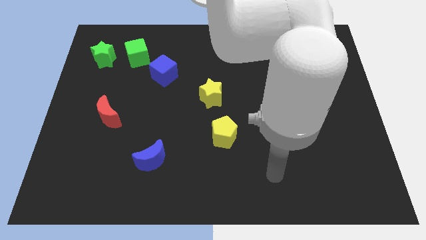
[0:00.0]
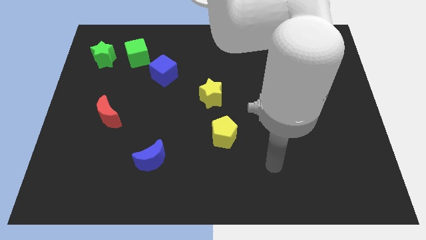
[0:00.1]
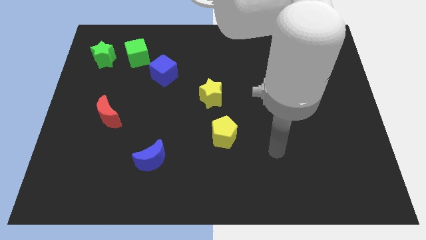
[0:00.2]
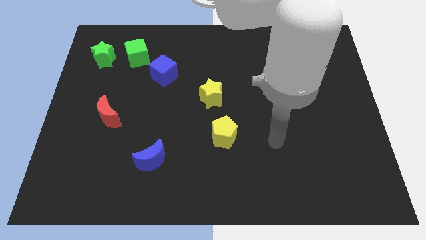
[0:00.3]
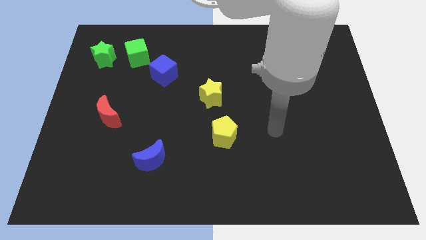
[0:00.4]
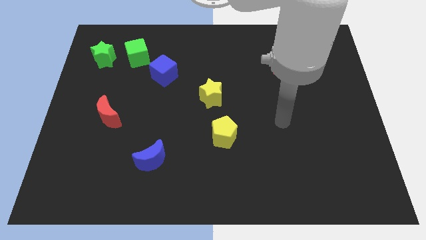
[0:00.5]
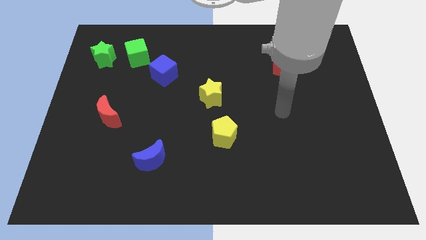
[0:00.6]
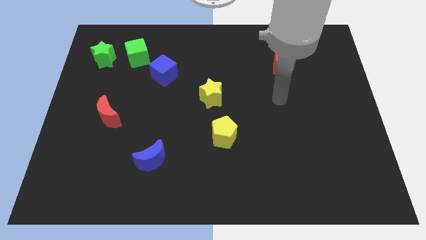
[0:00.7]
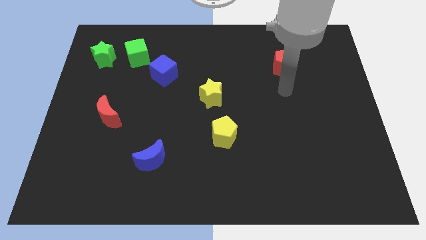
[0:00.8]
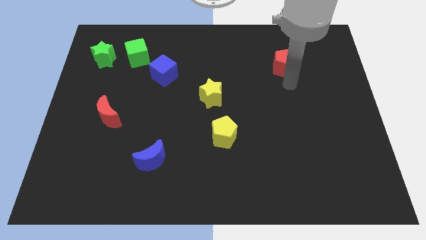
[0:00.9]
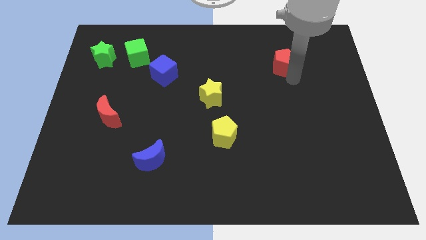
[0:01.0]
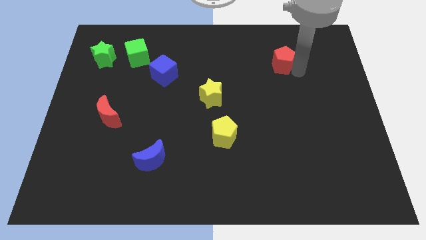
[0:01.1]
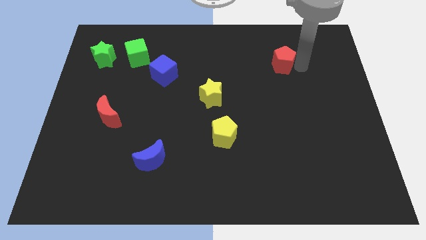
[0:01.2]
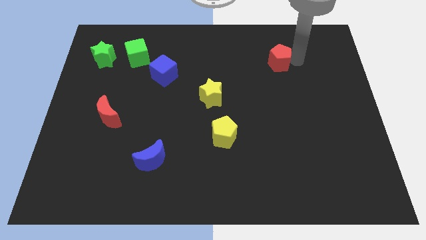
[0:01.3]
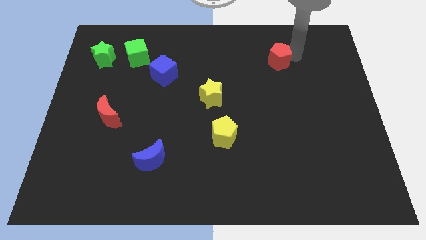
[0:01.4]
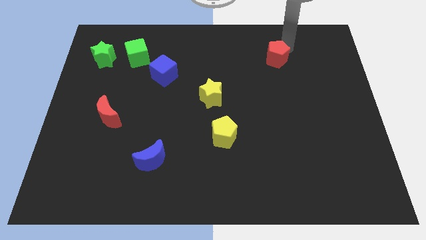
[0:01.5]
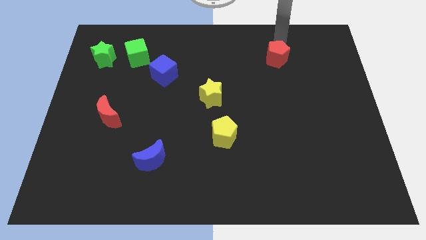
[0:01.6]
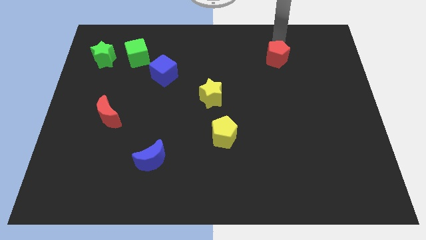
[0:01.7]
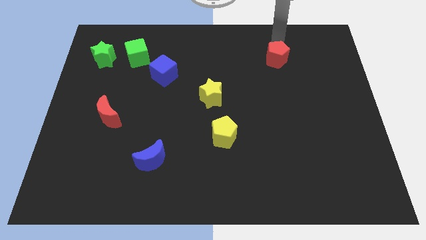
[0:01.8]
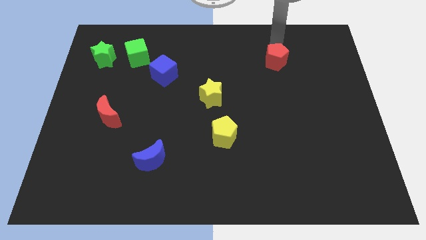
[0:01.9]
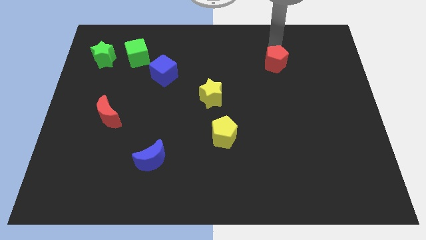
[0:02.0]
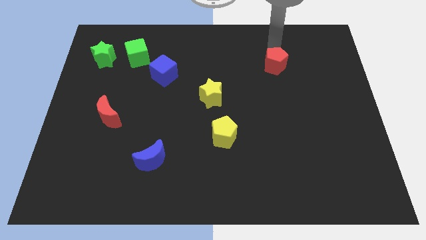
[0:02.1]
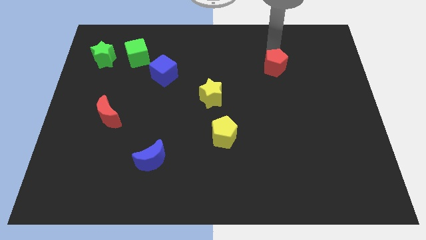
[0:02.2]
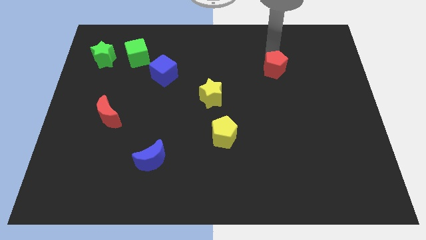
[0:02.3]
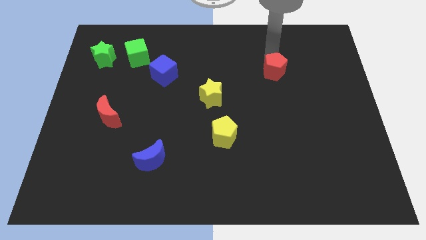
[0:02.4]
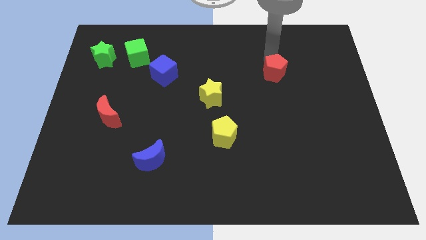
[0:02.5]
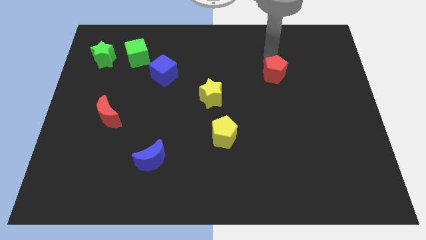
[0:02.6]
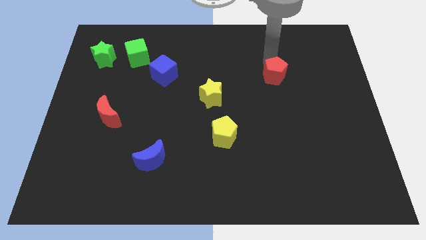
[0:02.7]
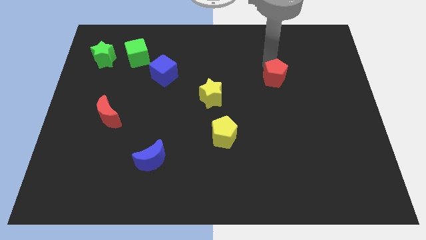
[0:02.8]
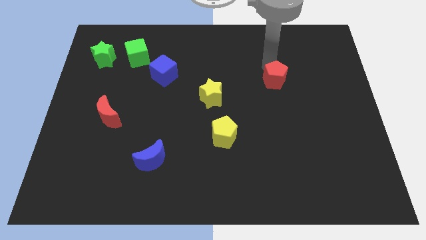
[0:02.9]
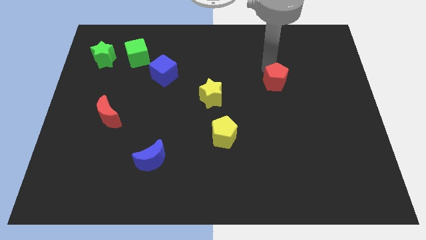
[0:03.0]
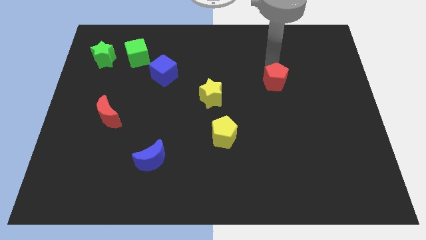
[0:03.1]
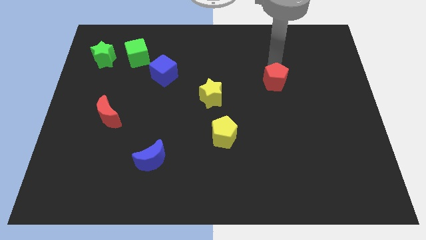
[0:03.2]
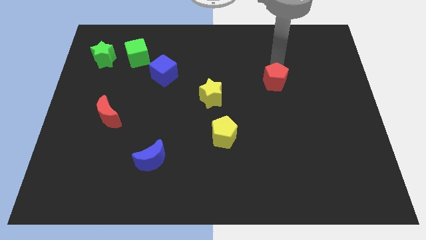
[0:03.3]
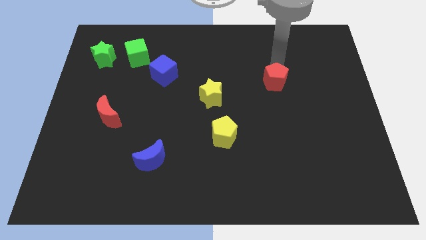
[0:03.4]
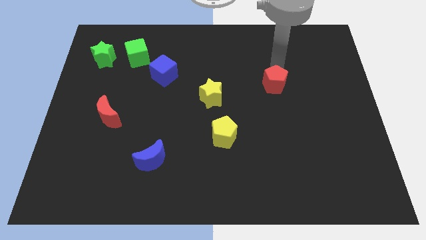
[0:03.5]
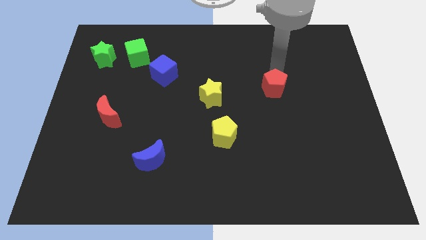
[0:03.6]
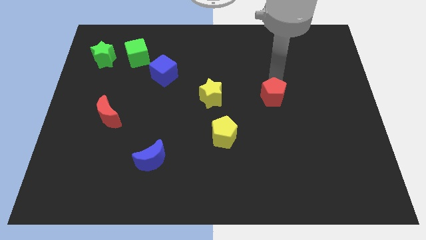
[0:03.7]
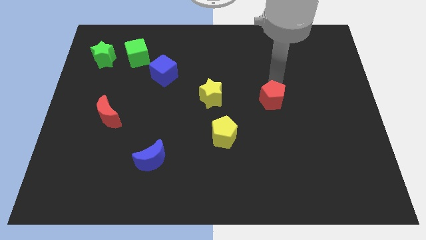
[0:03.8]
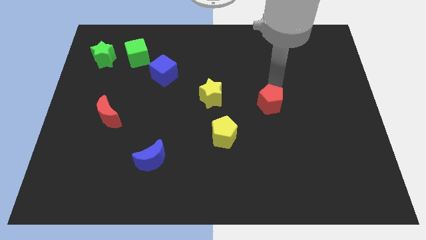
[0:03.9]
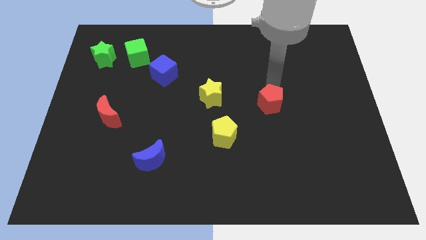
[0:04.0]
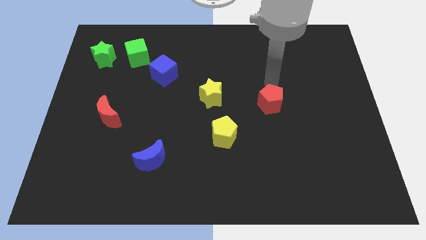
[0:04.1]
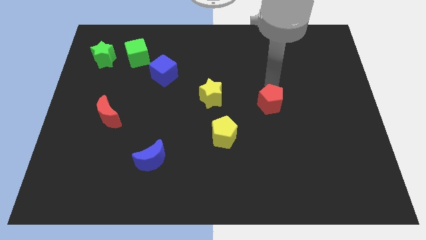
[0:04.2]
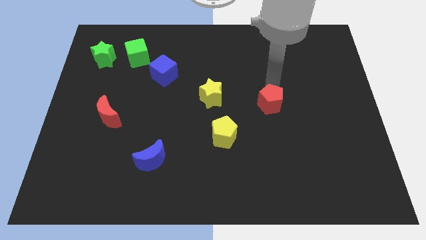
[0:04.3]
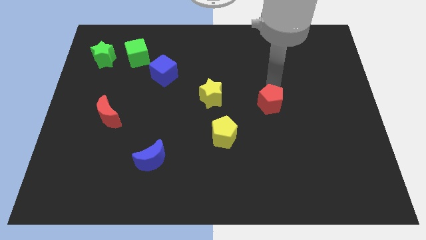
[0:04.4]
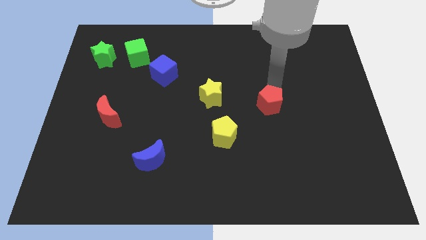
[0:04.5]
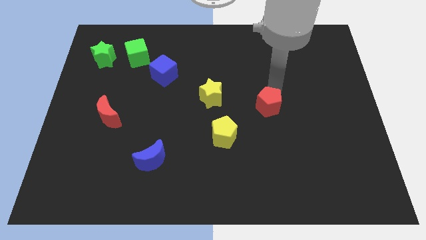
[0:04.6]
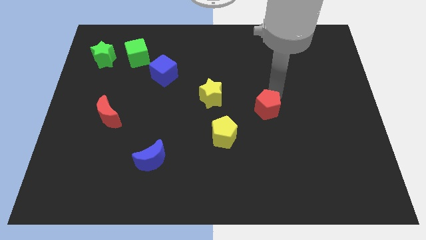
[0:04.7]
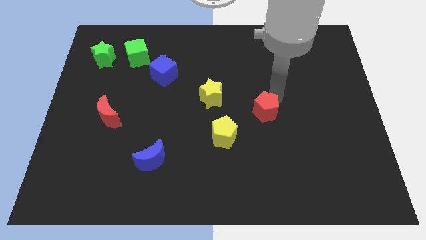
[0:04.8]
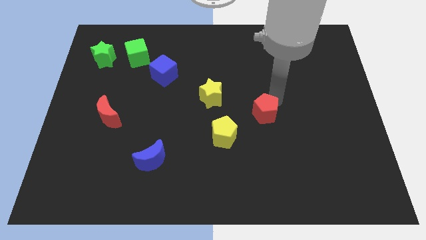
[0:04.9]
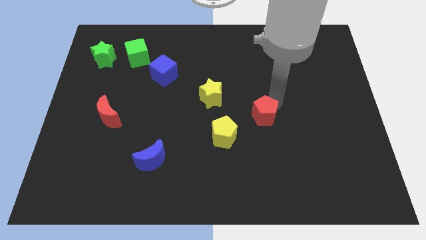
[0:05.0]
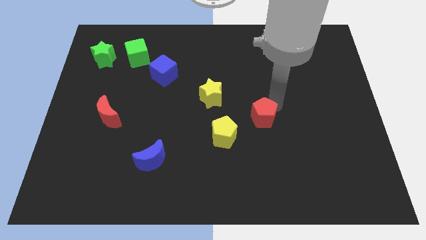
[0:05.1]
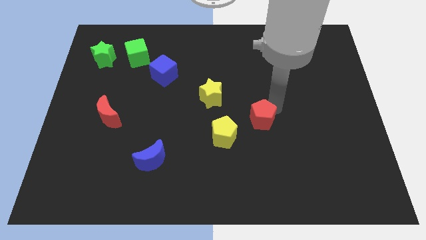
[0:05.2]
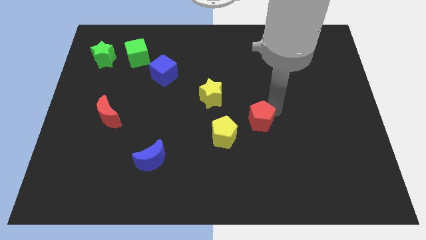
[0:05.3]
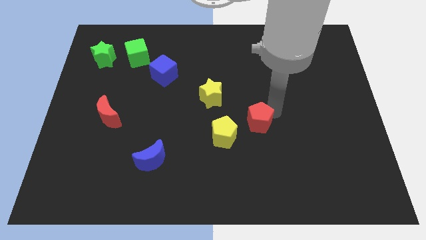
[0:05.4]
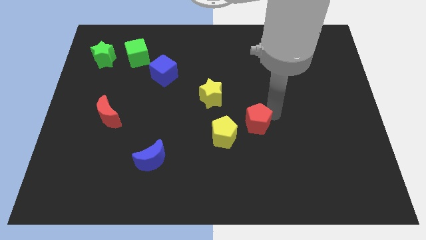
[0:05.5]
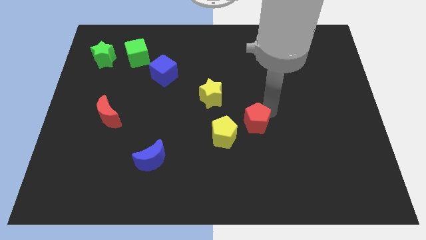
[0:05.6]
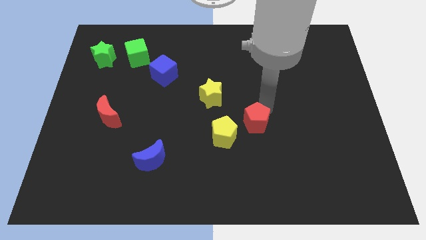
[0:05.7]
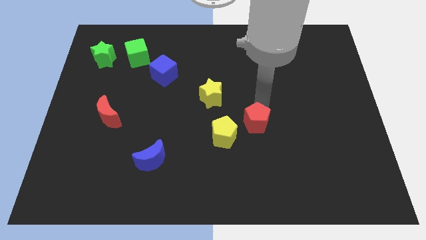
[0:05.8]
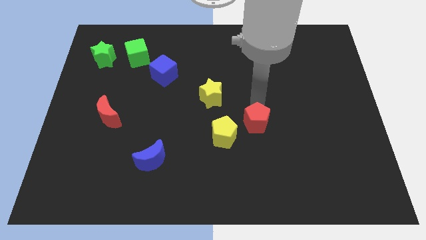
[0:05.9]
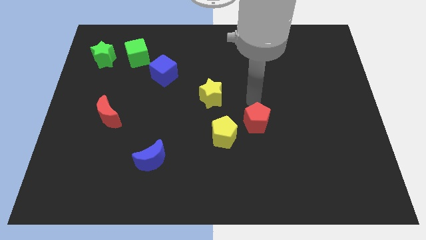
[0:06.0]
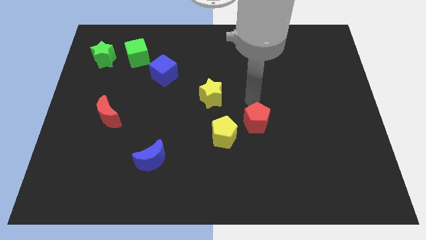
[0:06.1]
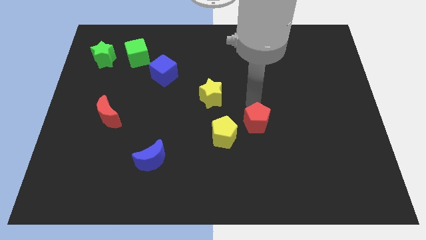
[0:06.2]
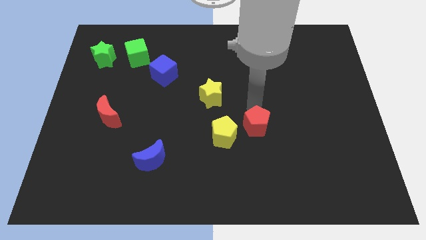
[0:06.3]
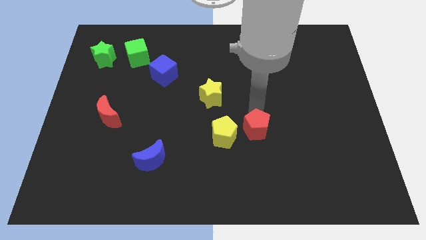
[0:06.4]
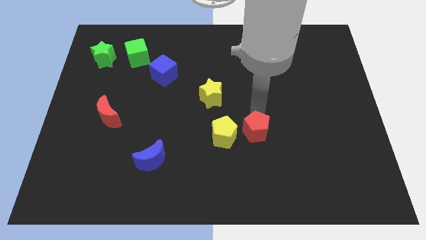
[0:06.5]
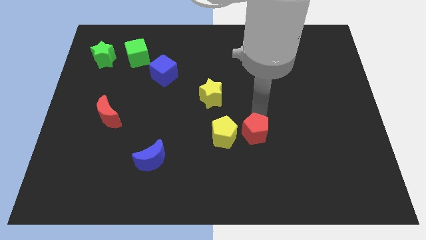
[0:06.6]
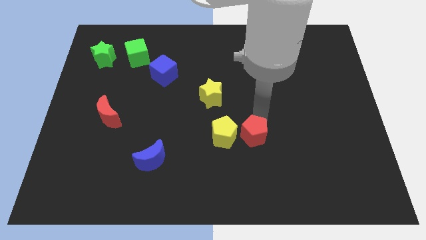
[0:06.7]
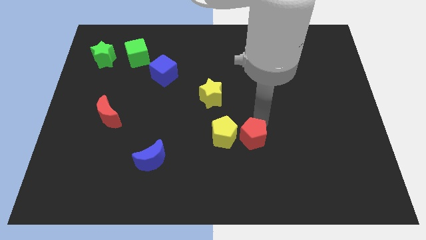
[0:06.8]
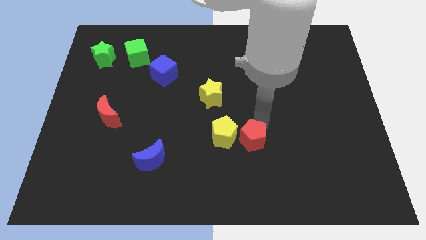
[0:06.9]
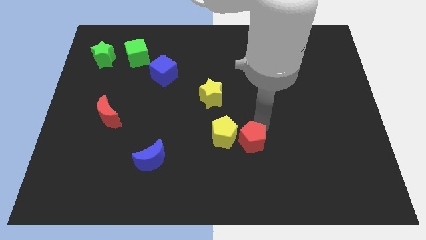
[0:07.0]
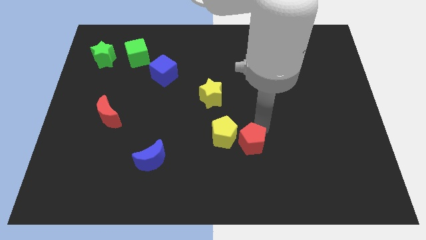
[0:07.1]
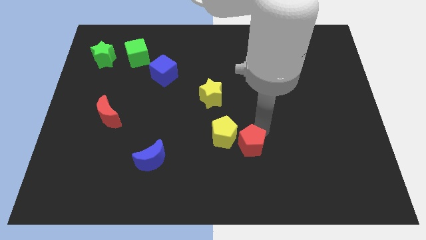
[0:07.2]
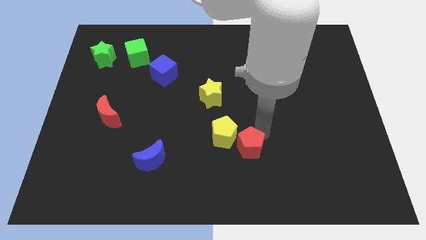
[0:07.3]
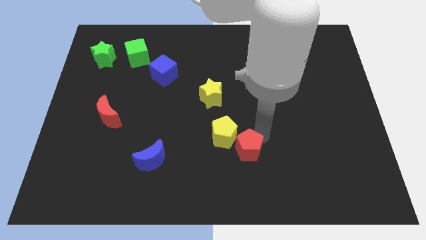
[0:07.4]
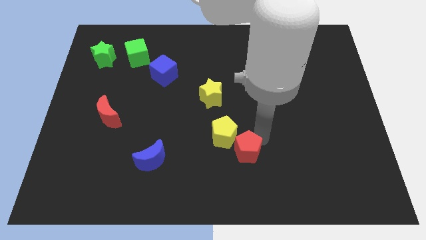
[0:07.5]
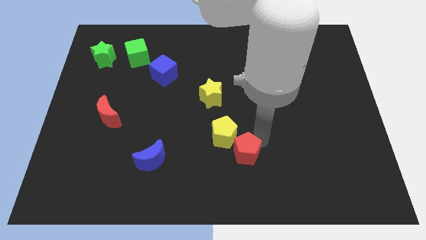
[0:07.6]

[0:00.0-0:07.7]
put the red pentagon below the yellow pentagon
